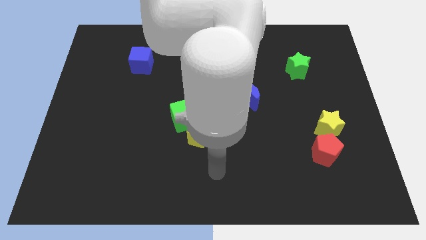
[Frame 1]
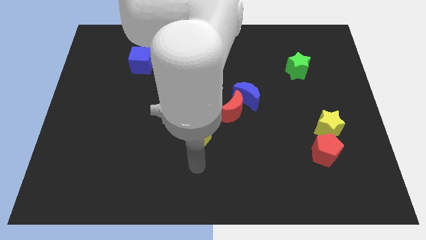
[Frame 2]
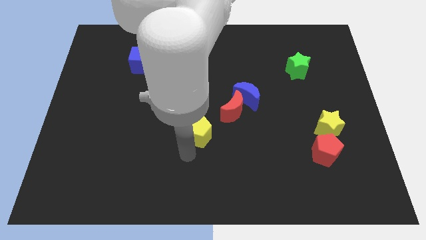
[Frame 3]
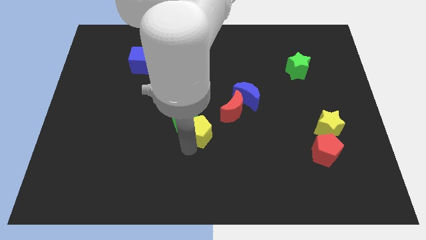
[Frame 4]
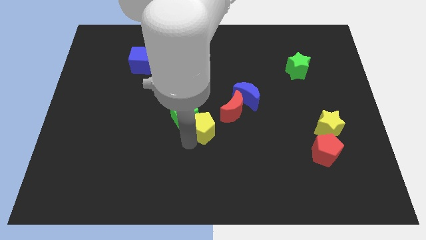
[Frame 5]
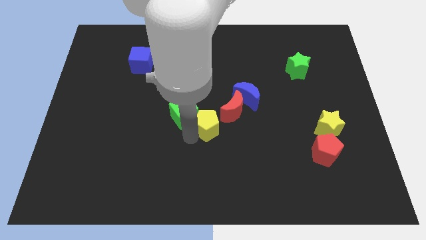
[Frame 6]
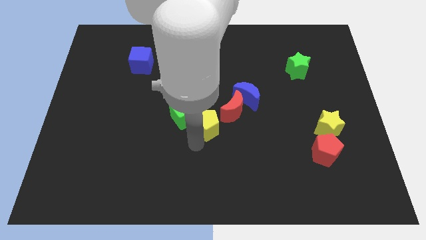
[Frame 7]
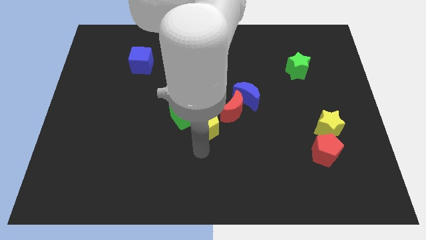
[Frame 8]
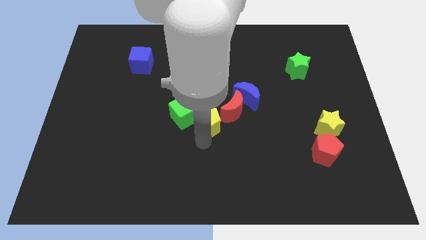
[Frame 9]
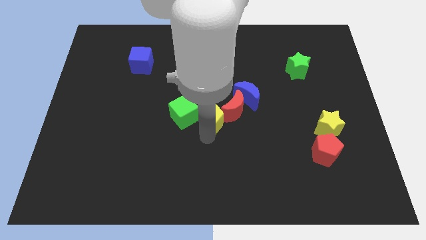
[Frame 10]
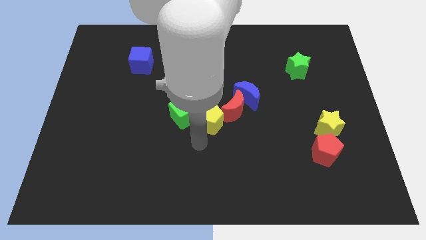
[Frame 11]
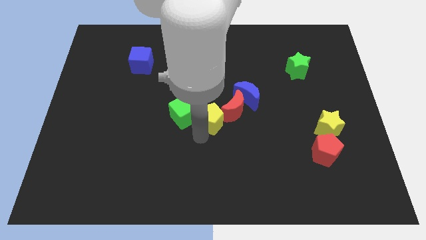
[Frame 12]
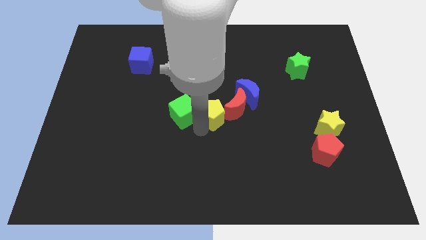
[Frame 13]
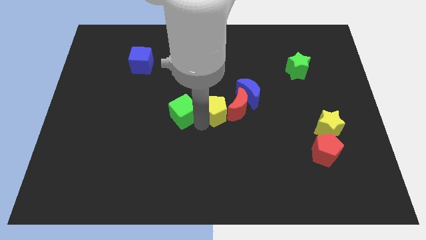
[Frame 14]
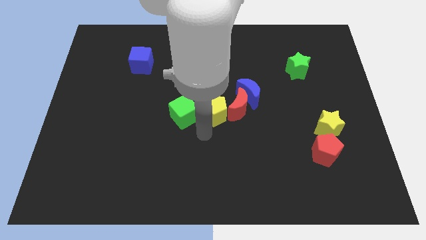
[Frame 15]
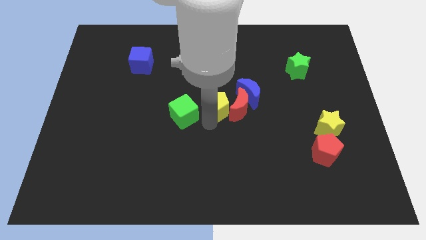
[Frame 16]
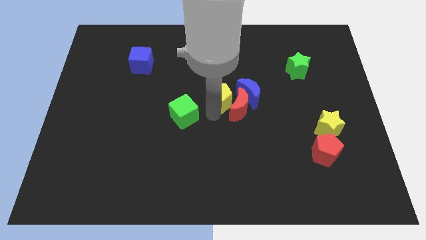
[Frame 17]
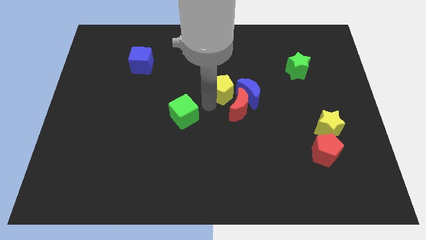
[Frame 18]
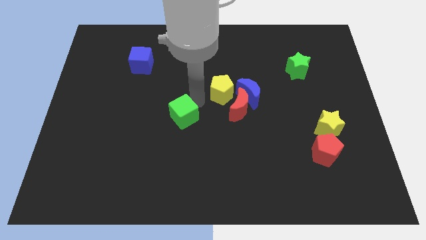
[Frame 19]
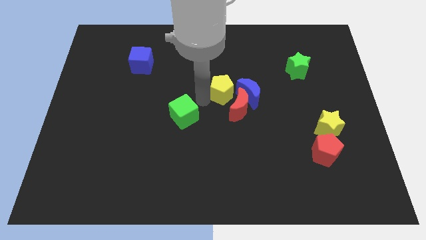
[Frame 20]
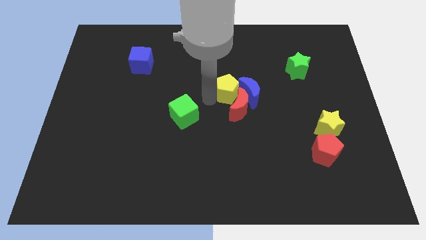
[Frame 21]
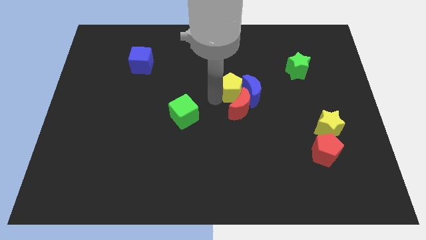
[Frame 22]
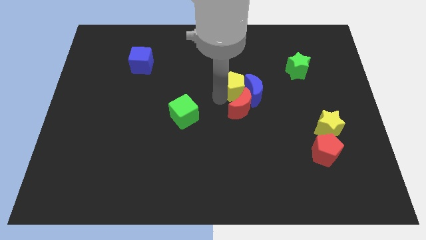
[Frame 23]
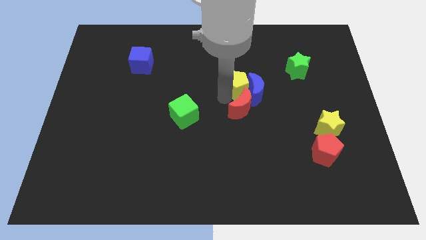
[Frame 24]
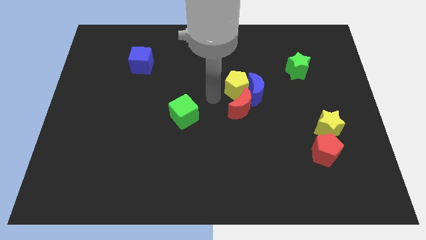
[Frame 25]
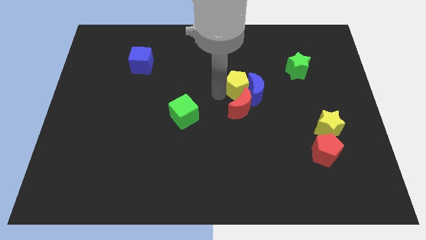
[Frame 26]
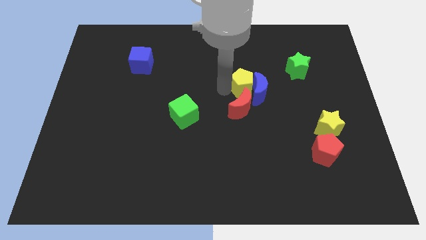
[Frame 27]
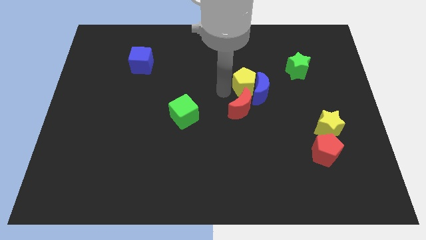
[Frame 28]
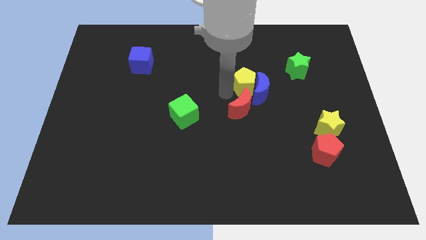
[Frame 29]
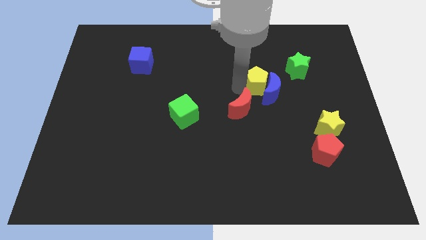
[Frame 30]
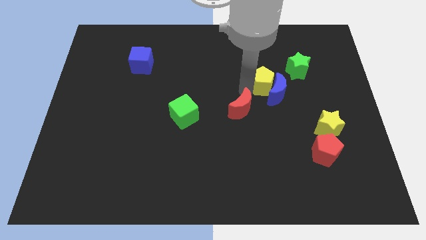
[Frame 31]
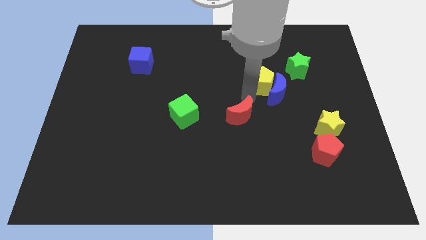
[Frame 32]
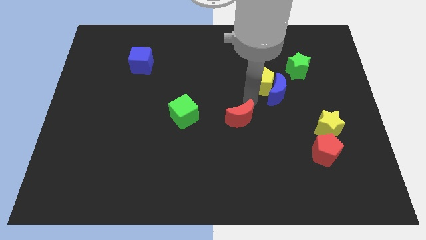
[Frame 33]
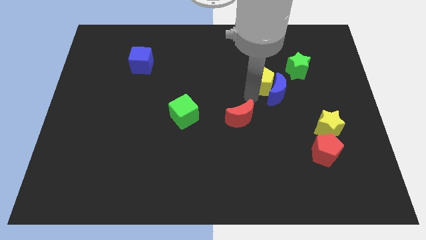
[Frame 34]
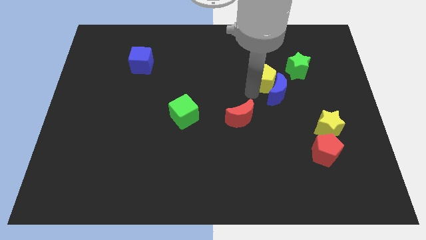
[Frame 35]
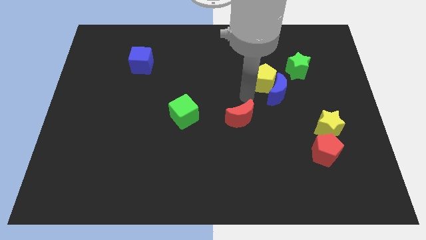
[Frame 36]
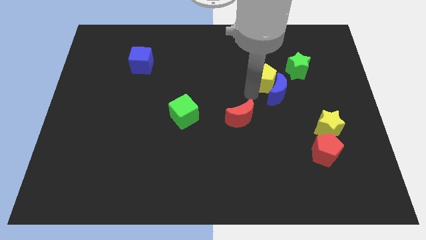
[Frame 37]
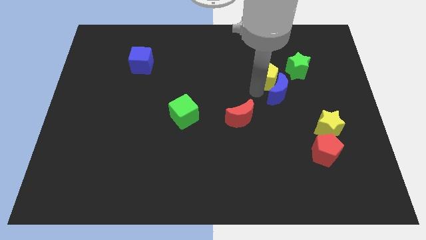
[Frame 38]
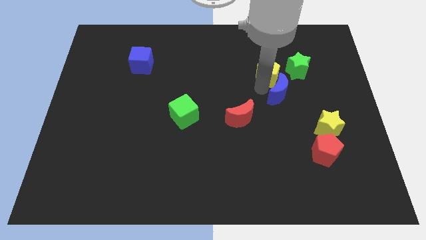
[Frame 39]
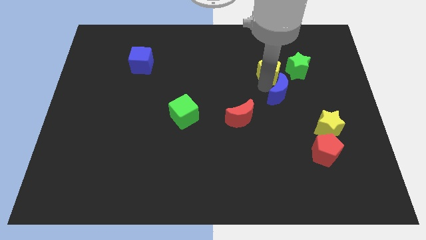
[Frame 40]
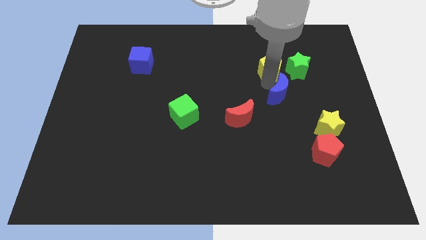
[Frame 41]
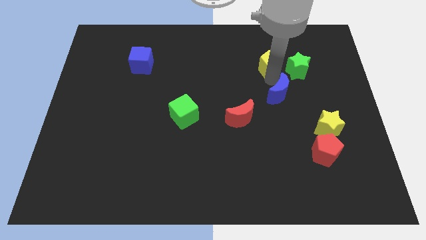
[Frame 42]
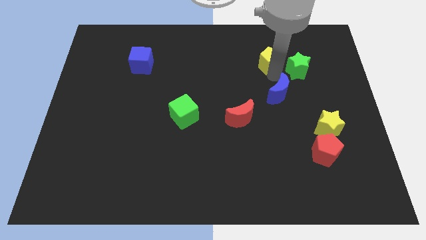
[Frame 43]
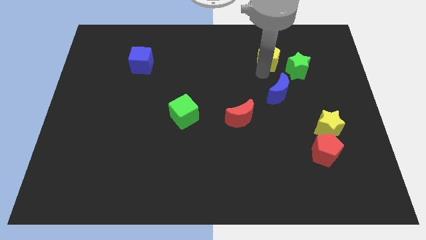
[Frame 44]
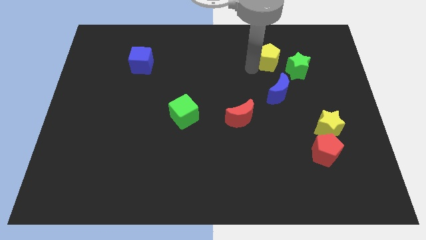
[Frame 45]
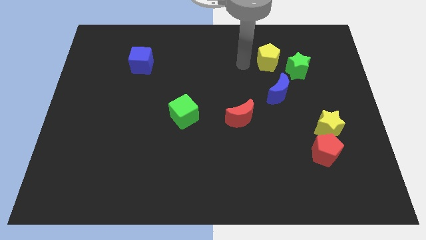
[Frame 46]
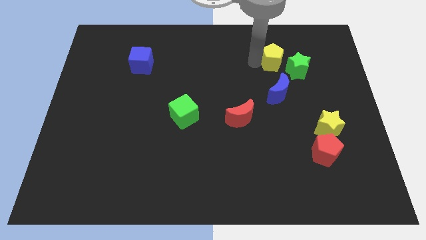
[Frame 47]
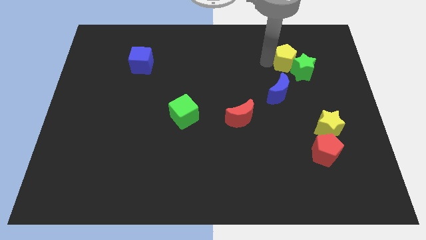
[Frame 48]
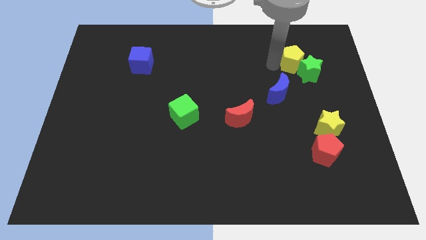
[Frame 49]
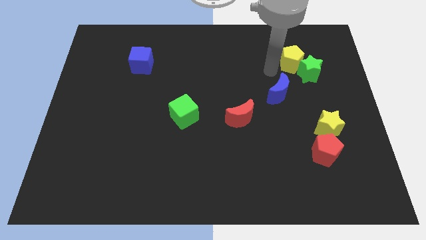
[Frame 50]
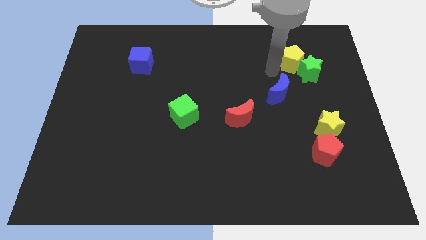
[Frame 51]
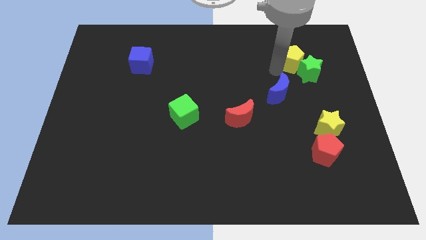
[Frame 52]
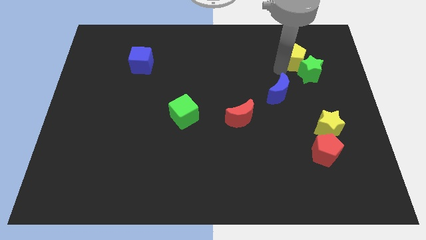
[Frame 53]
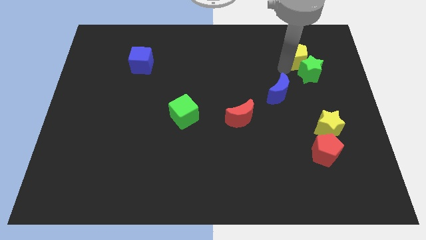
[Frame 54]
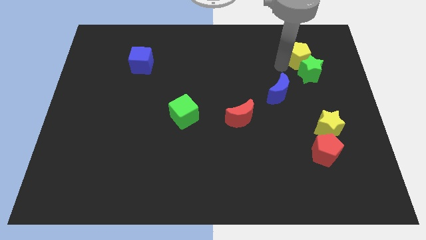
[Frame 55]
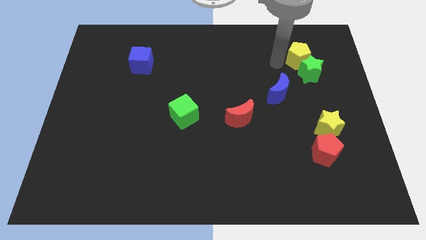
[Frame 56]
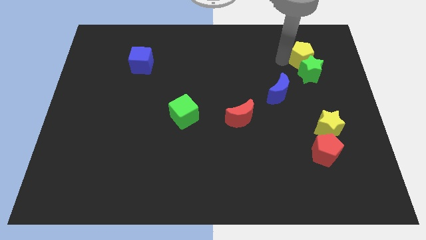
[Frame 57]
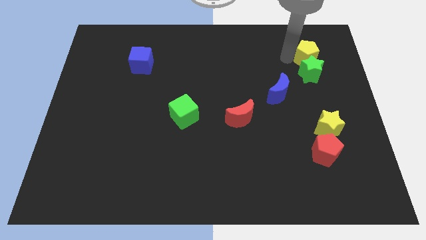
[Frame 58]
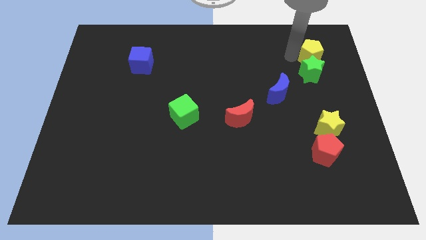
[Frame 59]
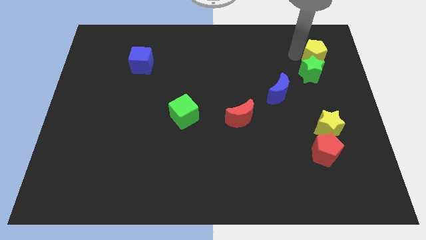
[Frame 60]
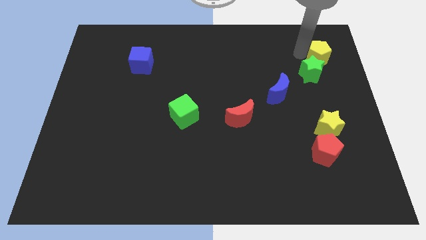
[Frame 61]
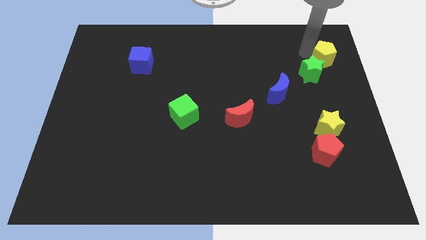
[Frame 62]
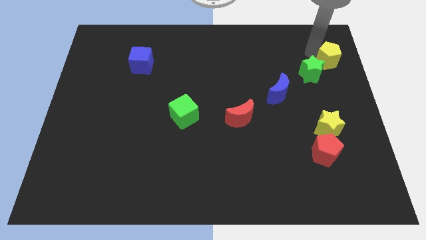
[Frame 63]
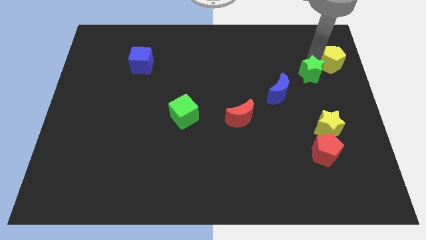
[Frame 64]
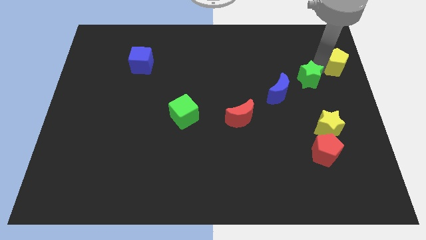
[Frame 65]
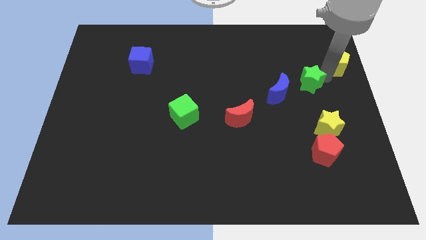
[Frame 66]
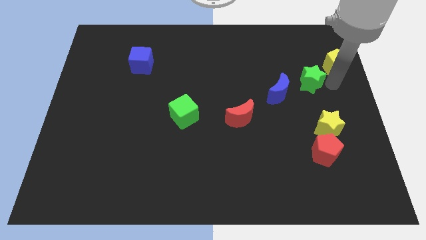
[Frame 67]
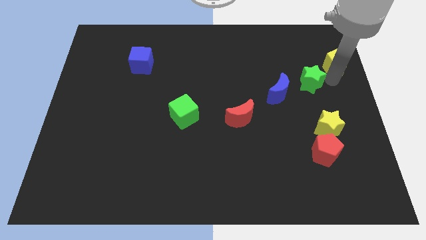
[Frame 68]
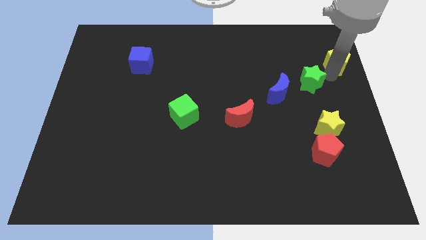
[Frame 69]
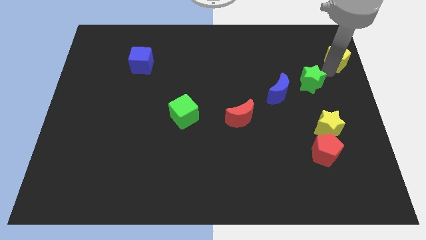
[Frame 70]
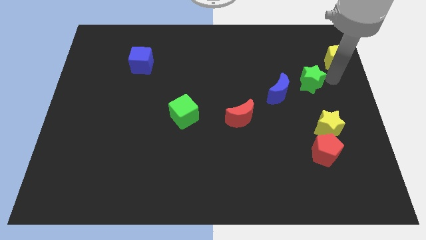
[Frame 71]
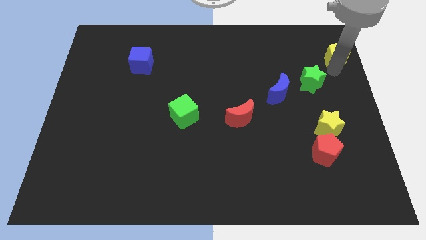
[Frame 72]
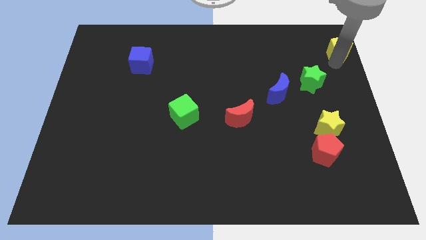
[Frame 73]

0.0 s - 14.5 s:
push the yellow pentagon to the upper right corner
